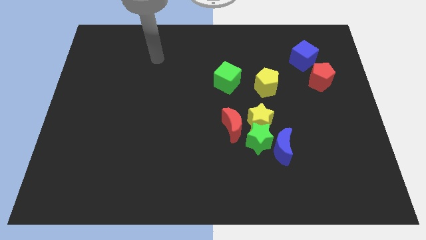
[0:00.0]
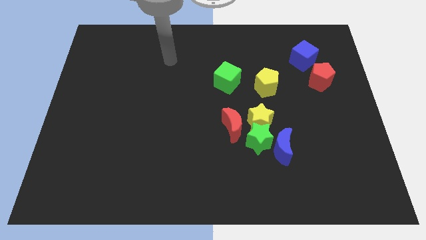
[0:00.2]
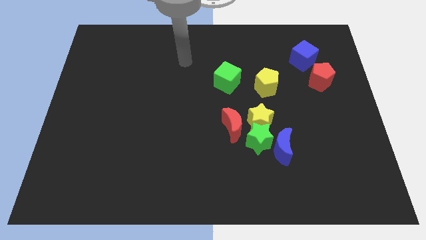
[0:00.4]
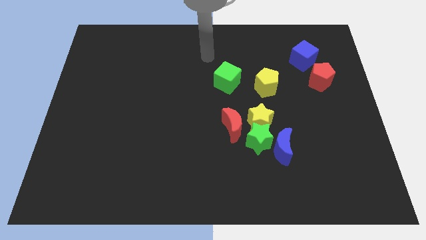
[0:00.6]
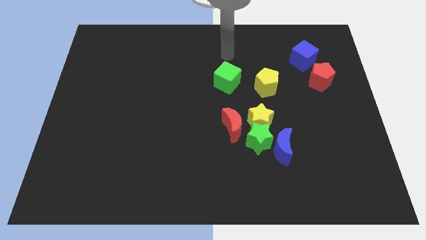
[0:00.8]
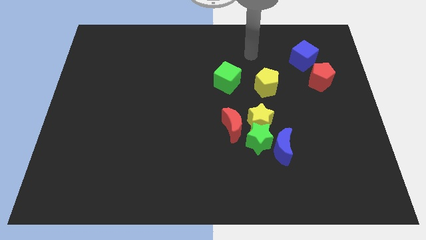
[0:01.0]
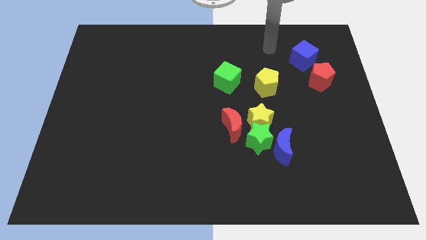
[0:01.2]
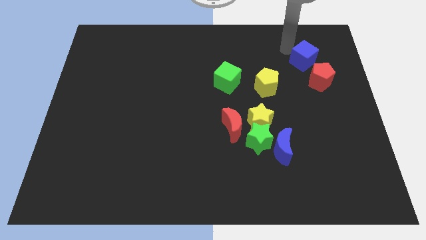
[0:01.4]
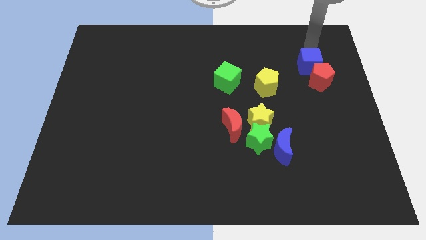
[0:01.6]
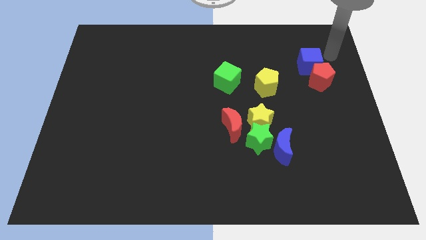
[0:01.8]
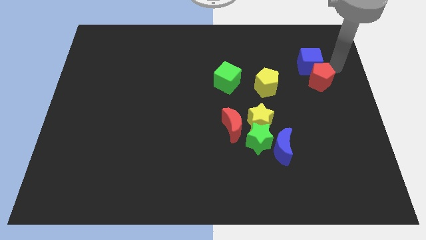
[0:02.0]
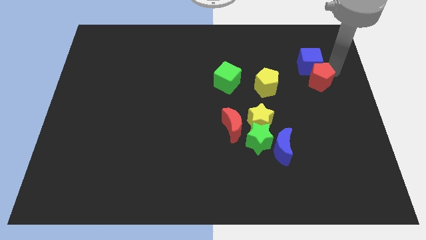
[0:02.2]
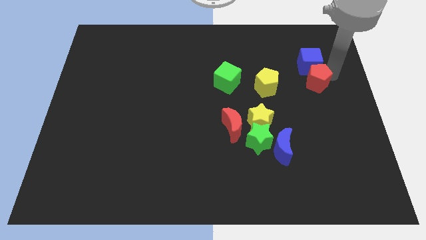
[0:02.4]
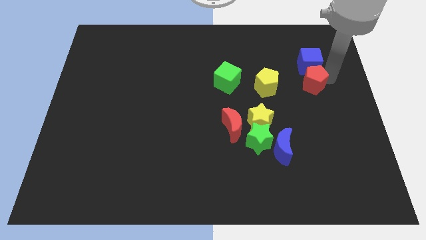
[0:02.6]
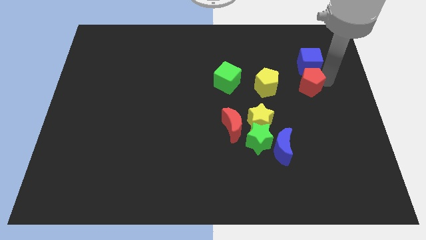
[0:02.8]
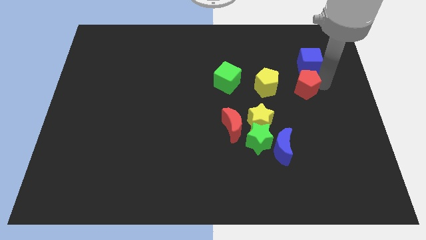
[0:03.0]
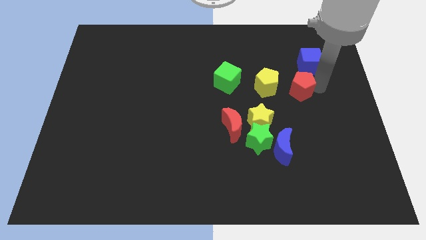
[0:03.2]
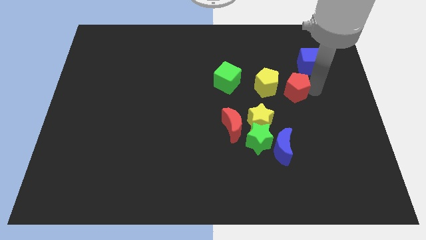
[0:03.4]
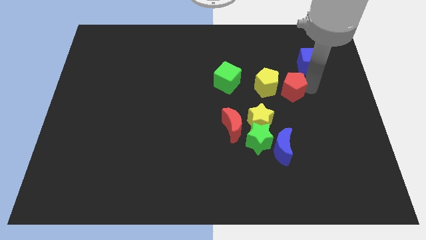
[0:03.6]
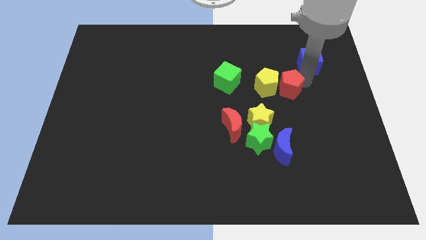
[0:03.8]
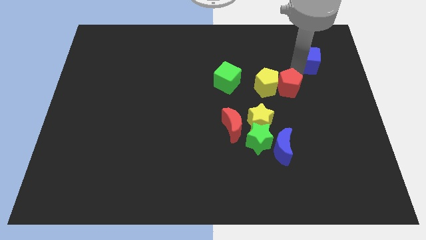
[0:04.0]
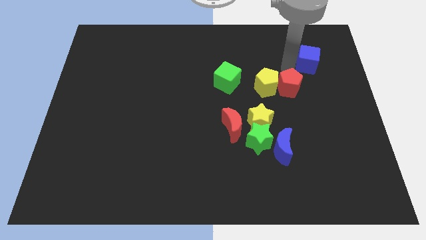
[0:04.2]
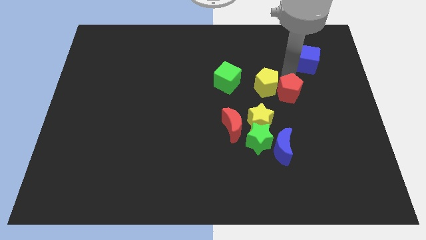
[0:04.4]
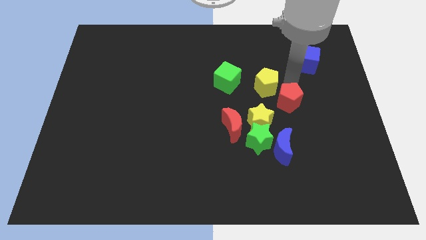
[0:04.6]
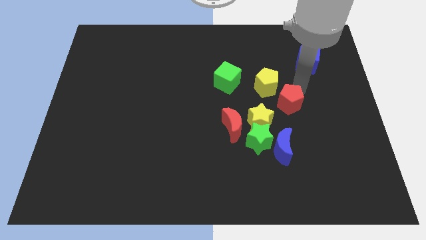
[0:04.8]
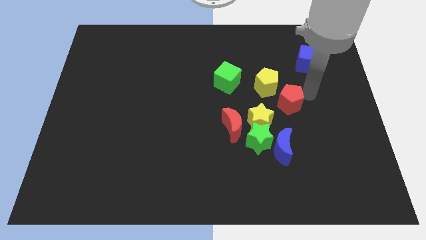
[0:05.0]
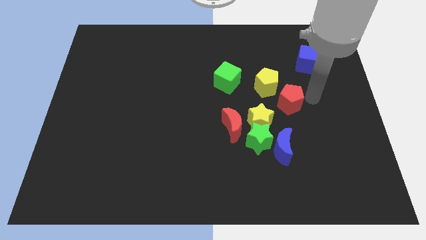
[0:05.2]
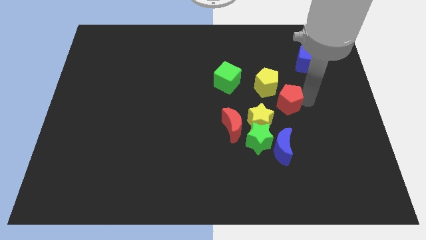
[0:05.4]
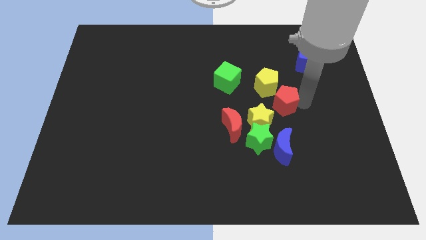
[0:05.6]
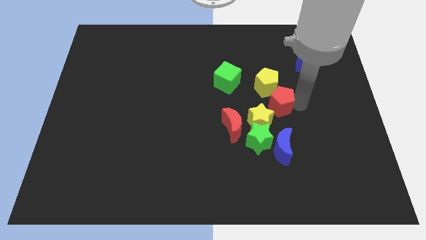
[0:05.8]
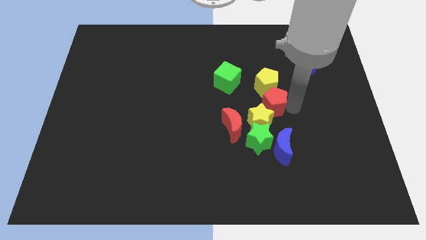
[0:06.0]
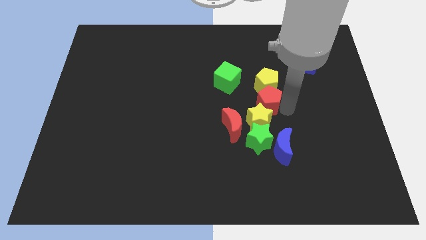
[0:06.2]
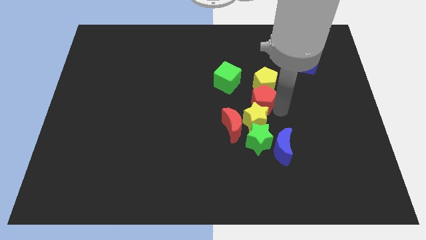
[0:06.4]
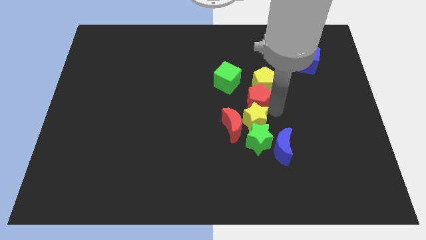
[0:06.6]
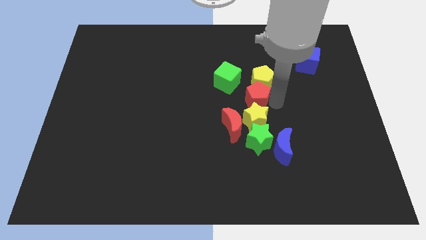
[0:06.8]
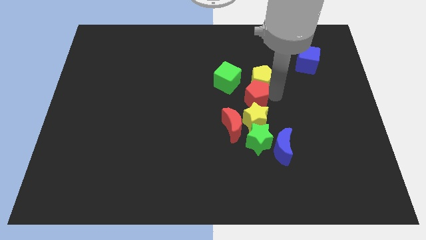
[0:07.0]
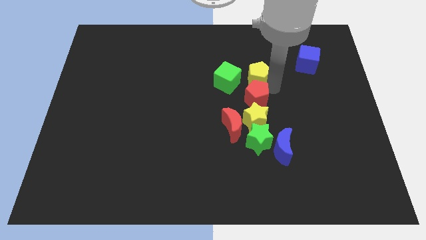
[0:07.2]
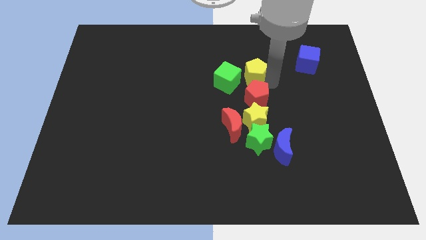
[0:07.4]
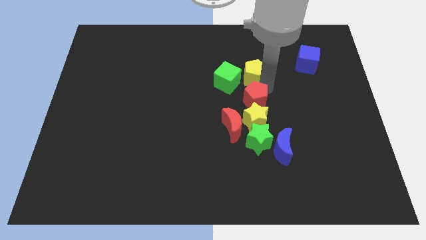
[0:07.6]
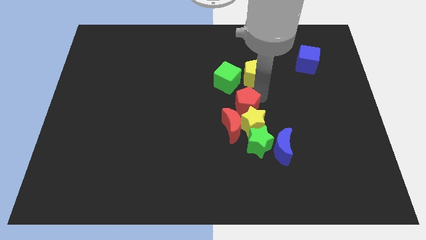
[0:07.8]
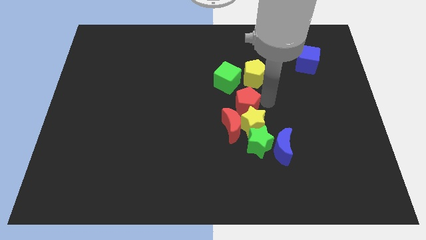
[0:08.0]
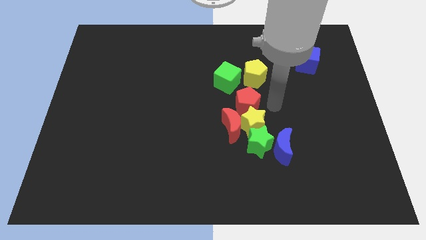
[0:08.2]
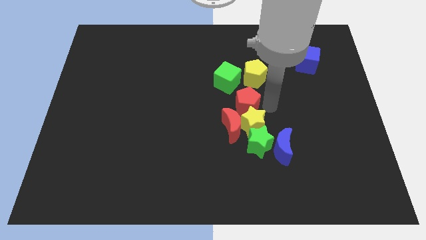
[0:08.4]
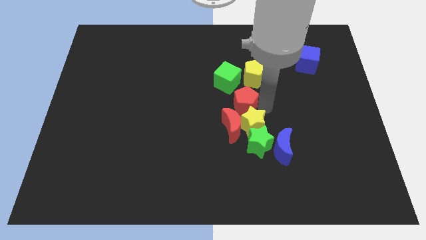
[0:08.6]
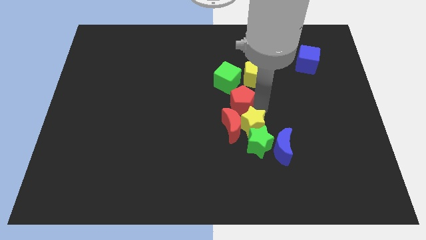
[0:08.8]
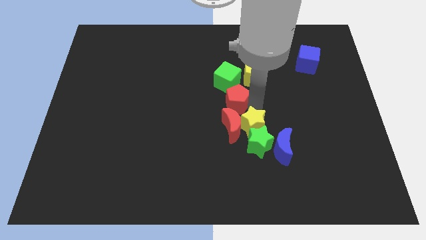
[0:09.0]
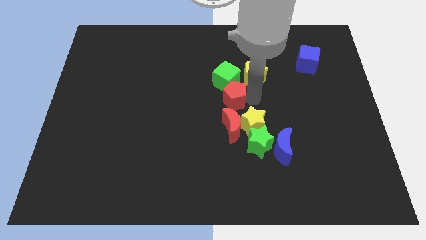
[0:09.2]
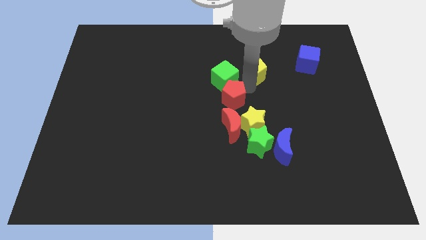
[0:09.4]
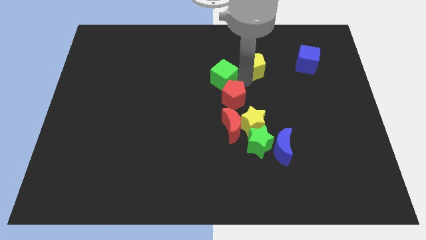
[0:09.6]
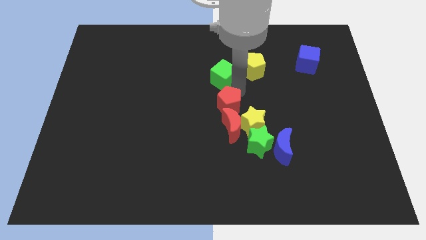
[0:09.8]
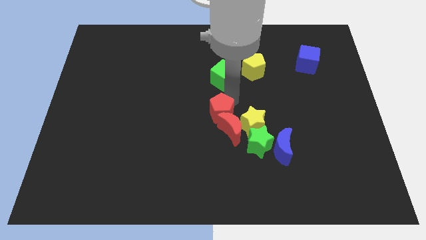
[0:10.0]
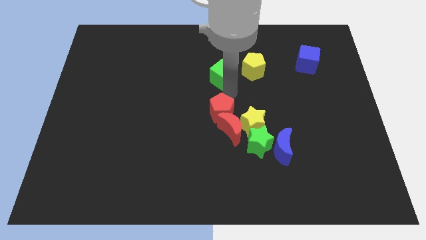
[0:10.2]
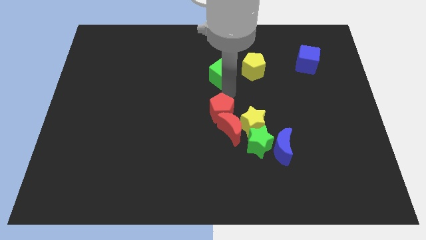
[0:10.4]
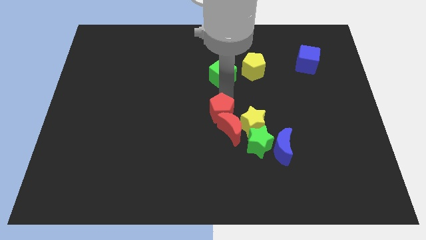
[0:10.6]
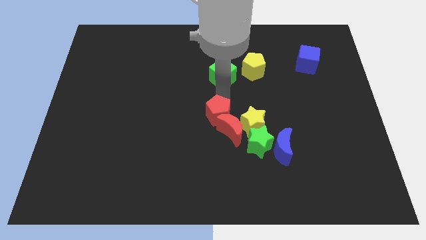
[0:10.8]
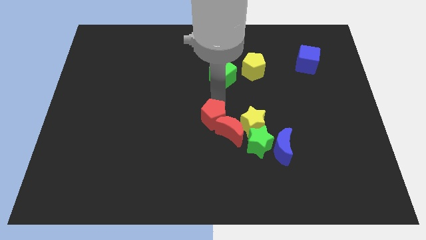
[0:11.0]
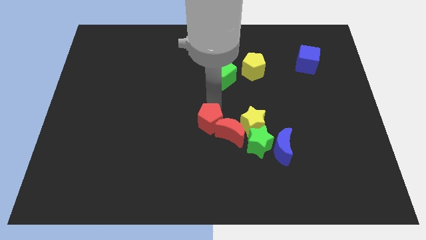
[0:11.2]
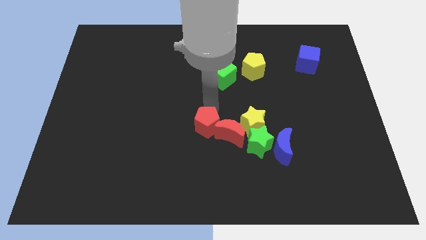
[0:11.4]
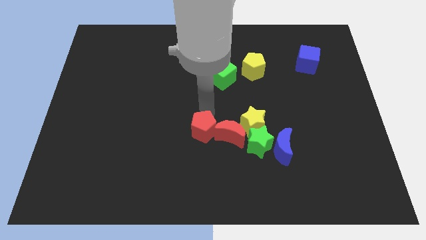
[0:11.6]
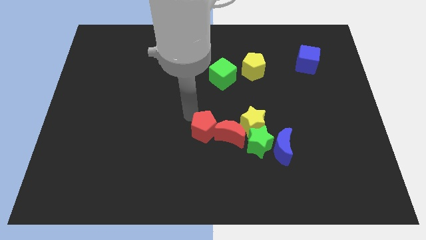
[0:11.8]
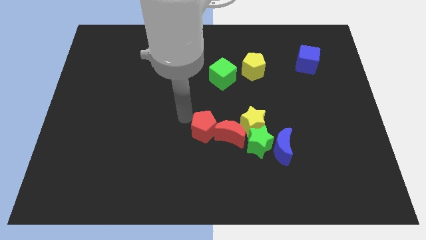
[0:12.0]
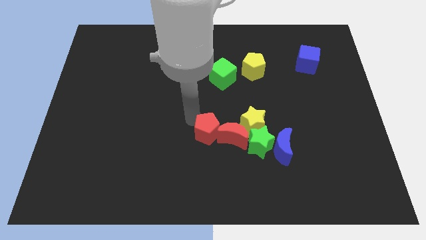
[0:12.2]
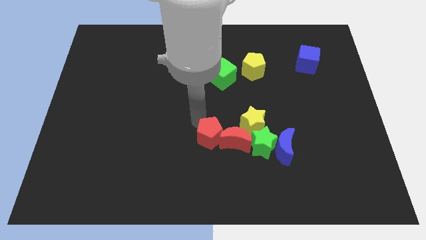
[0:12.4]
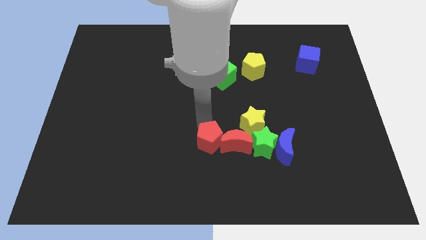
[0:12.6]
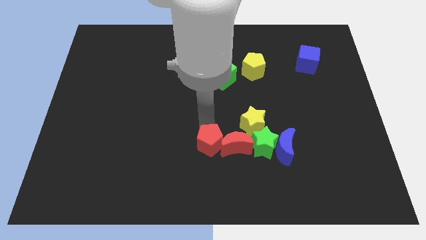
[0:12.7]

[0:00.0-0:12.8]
slide the red pentagon just left of the blue moon

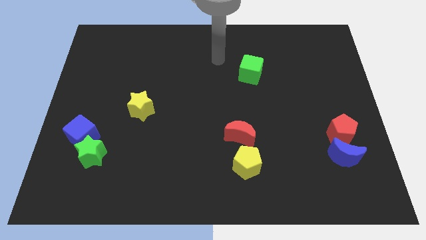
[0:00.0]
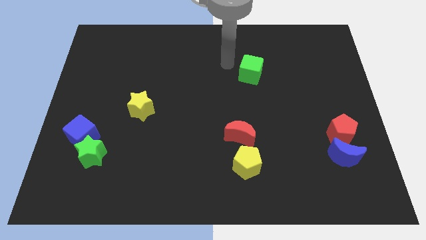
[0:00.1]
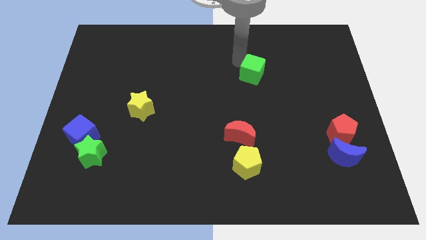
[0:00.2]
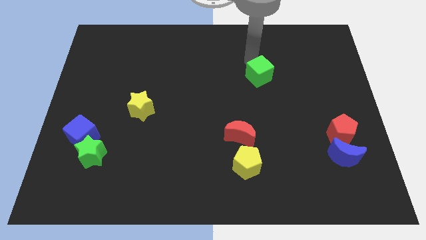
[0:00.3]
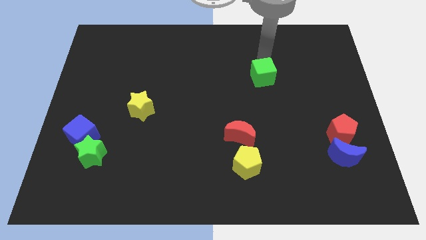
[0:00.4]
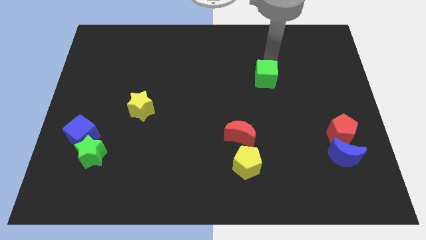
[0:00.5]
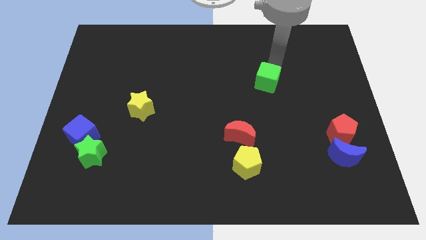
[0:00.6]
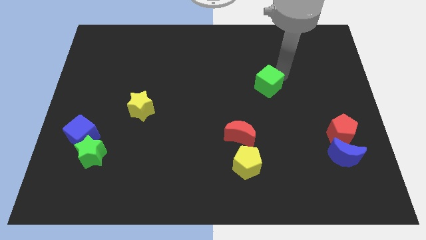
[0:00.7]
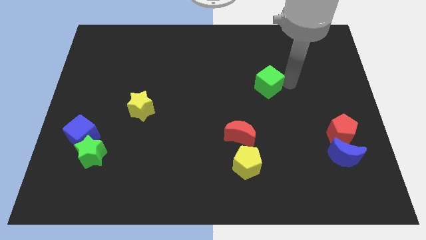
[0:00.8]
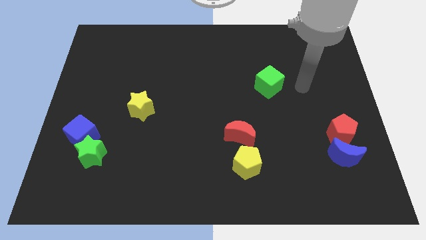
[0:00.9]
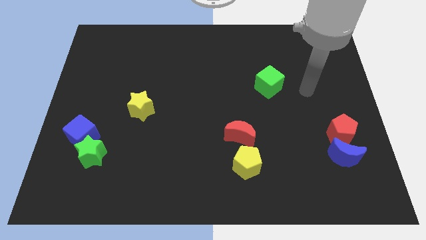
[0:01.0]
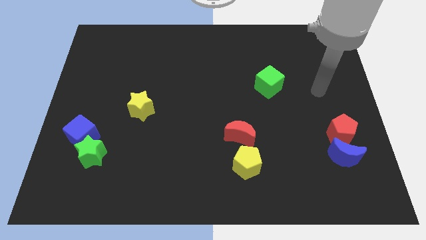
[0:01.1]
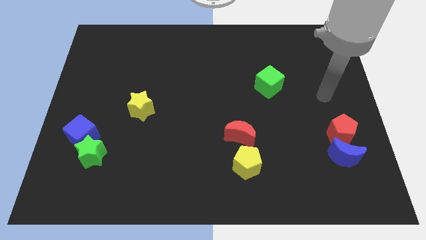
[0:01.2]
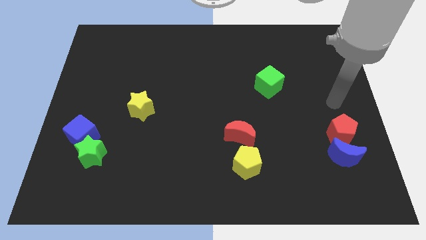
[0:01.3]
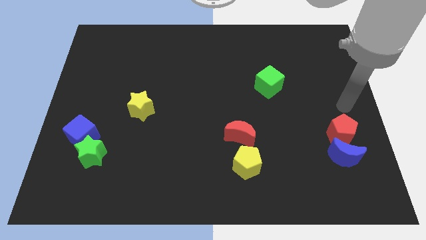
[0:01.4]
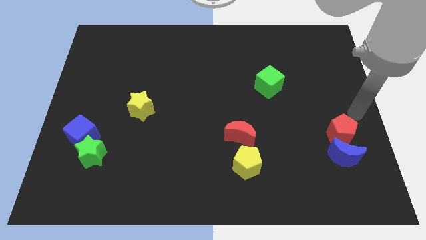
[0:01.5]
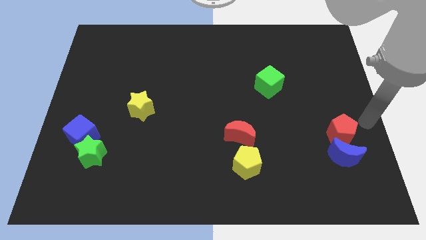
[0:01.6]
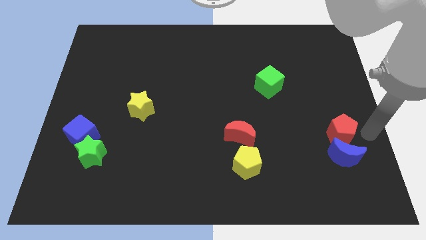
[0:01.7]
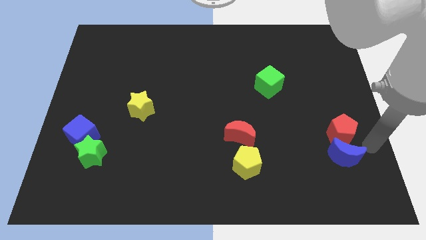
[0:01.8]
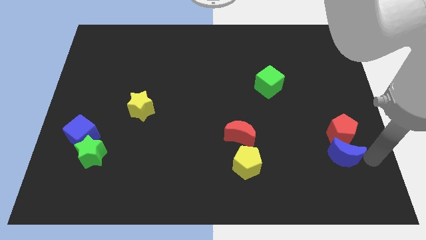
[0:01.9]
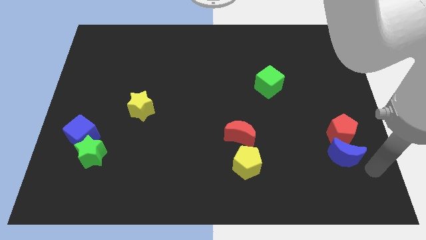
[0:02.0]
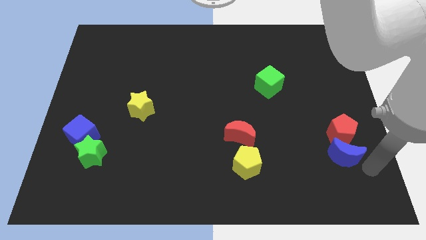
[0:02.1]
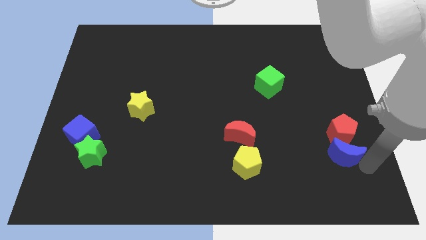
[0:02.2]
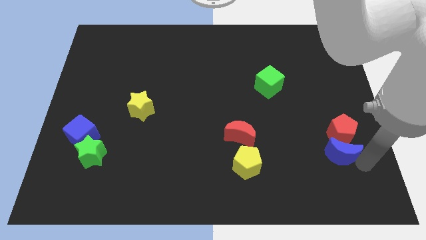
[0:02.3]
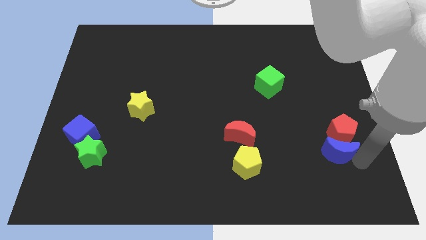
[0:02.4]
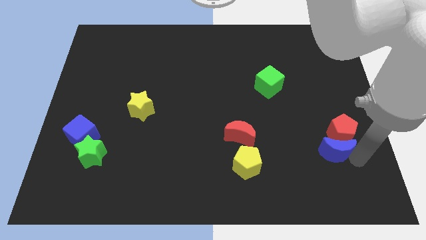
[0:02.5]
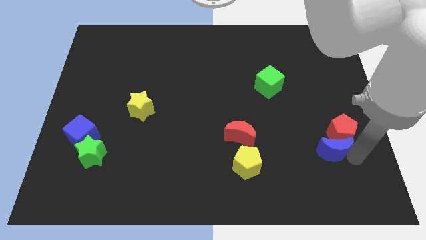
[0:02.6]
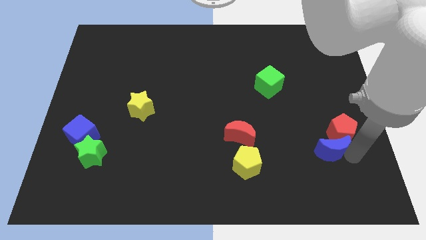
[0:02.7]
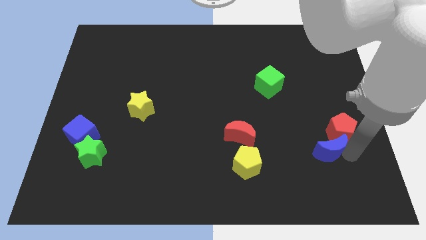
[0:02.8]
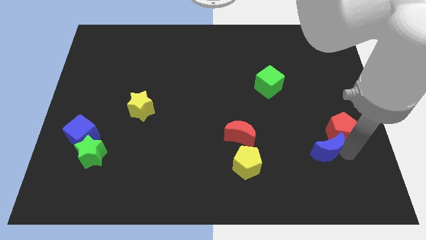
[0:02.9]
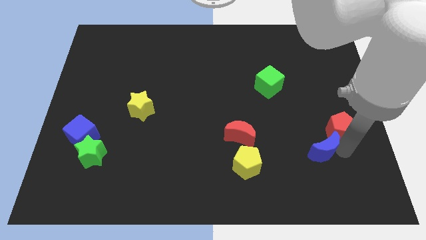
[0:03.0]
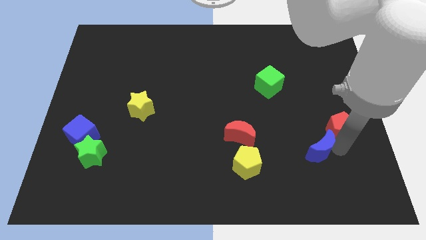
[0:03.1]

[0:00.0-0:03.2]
push the blue moon to the left of the red pentagon
